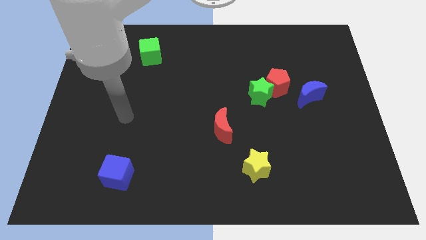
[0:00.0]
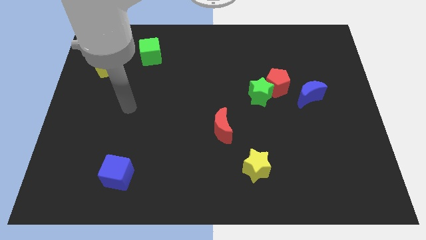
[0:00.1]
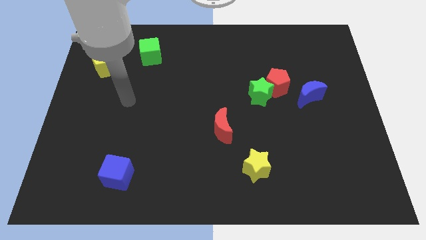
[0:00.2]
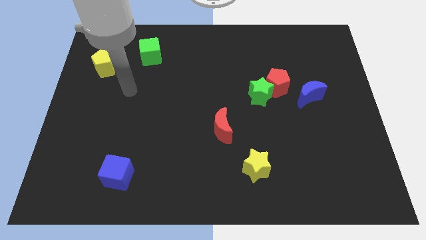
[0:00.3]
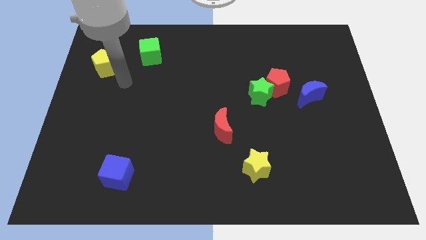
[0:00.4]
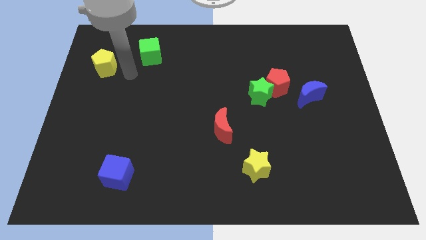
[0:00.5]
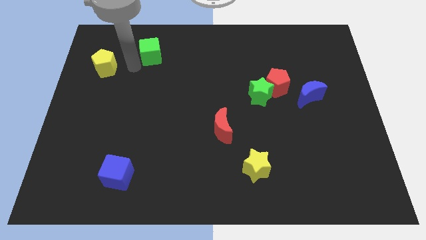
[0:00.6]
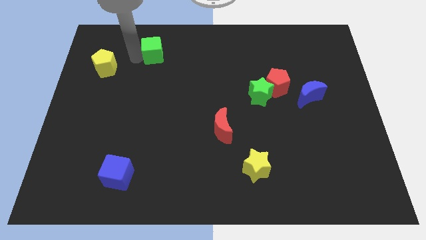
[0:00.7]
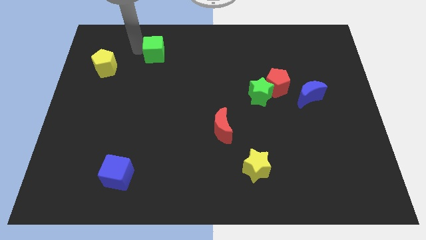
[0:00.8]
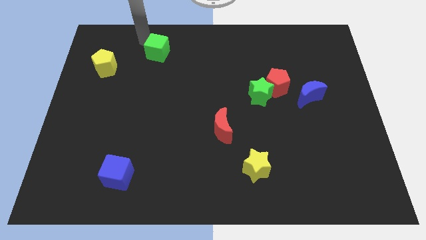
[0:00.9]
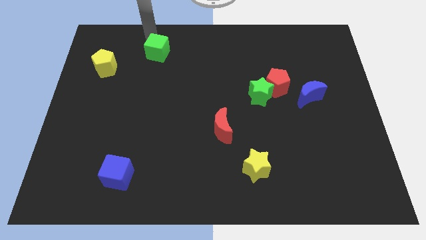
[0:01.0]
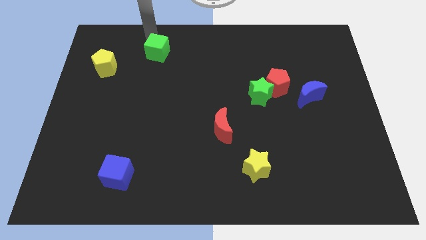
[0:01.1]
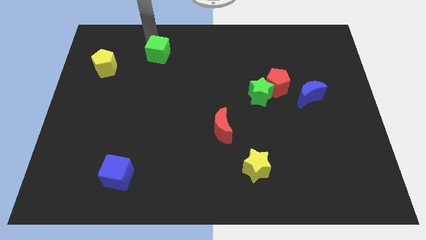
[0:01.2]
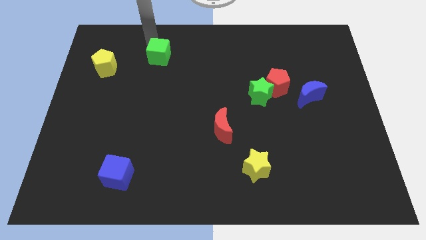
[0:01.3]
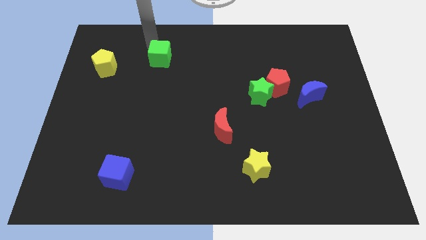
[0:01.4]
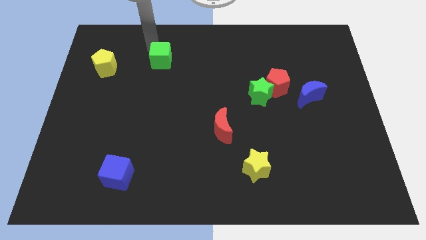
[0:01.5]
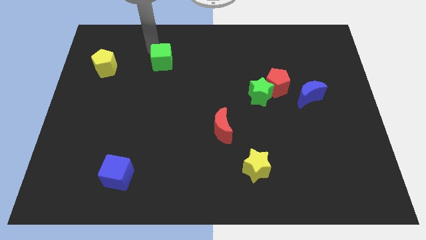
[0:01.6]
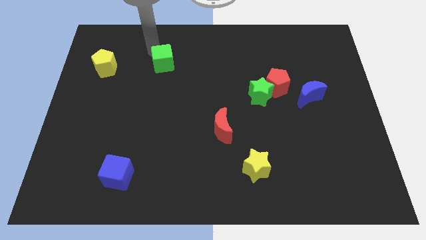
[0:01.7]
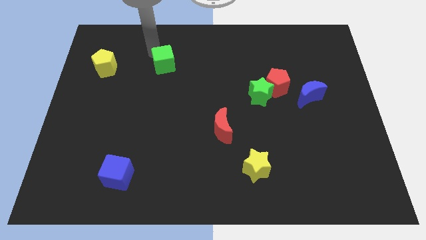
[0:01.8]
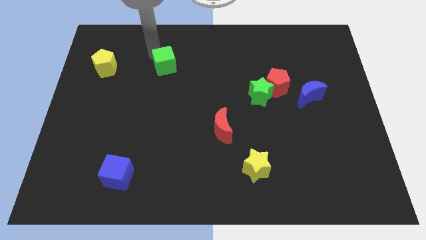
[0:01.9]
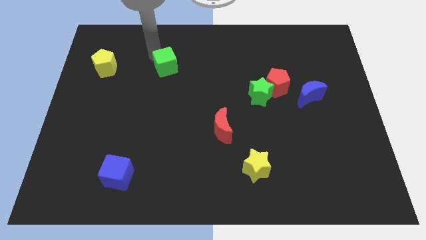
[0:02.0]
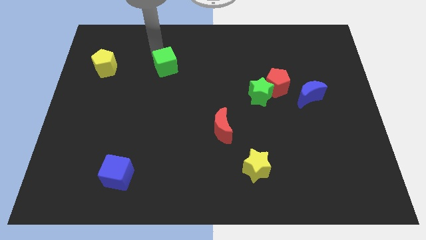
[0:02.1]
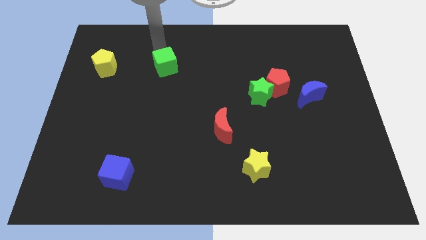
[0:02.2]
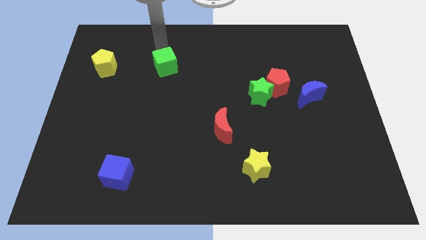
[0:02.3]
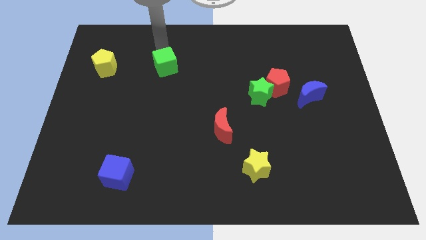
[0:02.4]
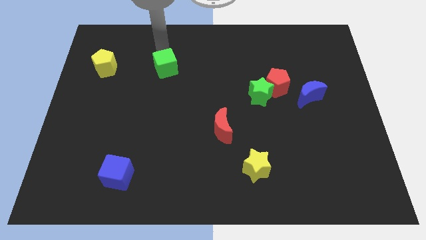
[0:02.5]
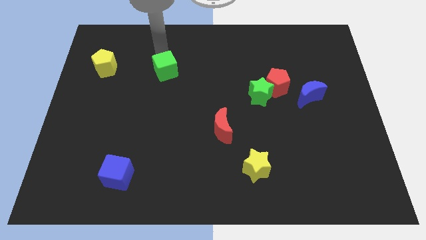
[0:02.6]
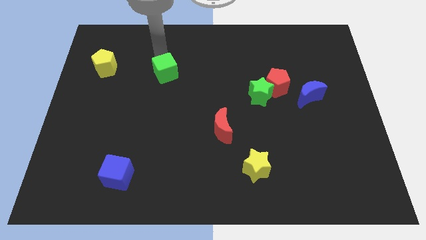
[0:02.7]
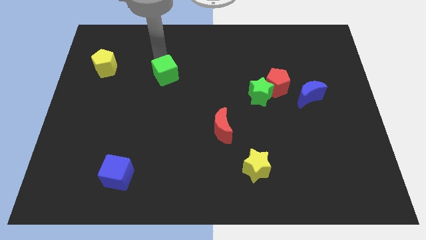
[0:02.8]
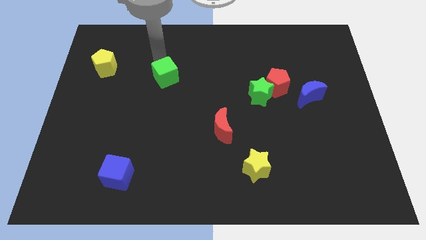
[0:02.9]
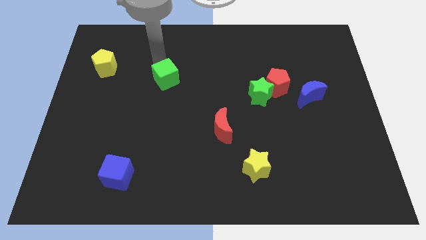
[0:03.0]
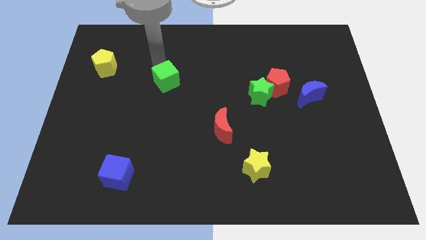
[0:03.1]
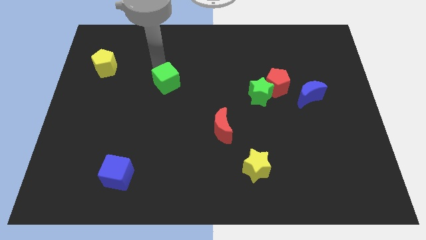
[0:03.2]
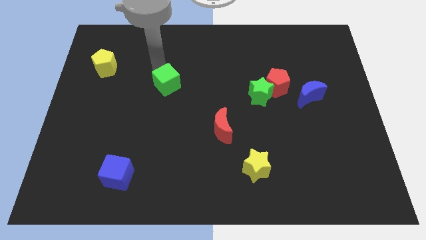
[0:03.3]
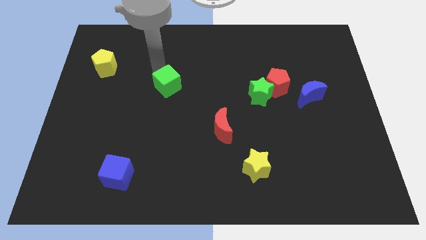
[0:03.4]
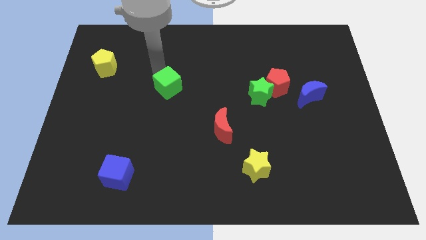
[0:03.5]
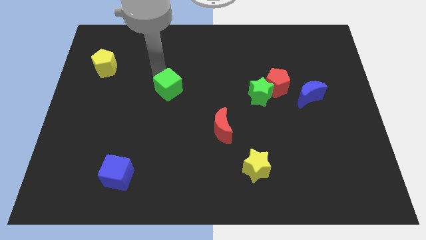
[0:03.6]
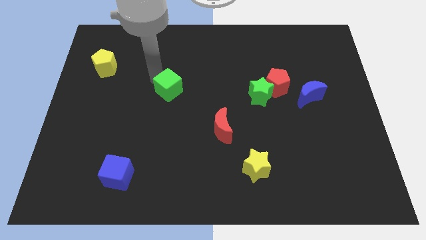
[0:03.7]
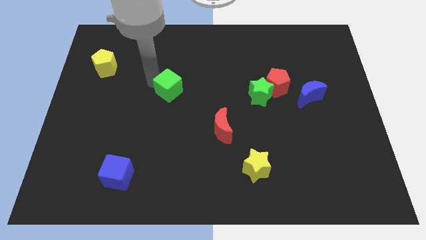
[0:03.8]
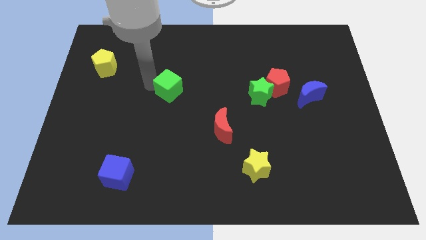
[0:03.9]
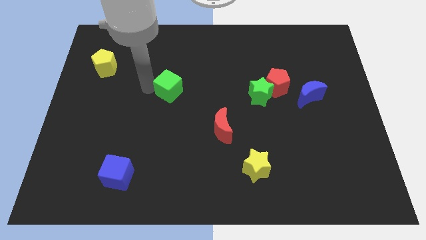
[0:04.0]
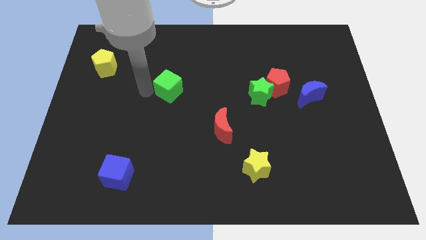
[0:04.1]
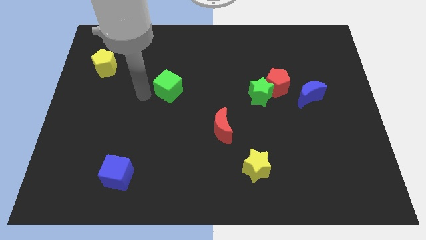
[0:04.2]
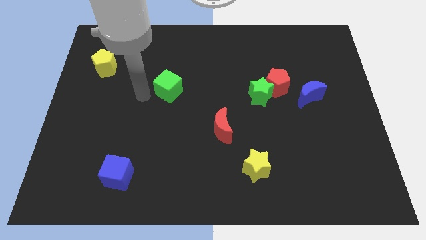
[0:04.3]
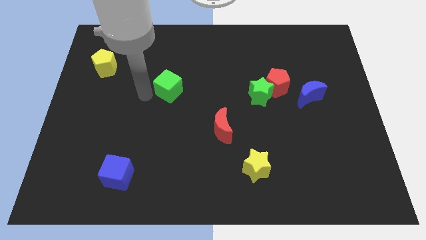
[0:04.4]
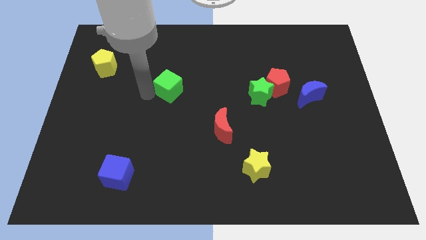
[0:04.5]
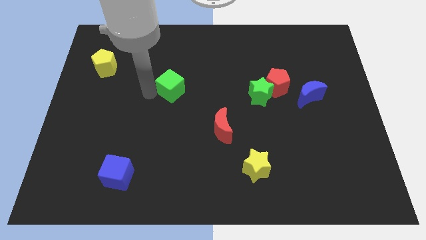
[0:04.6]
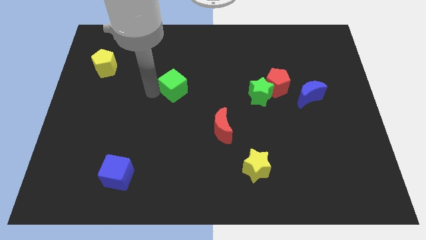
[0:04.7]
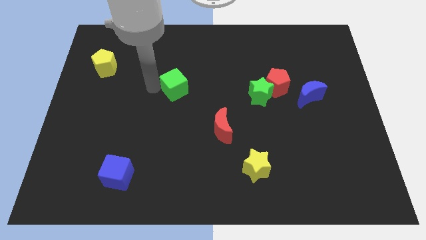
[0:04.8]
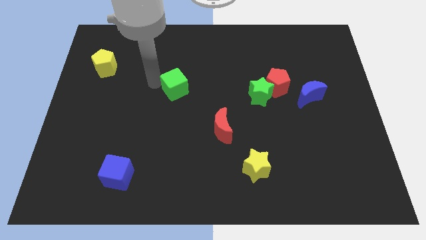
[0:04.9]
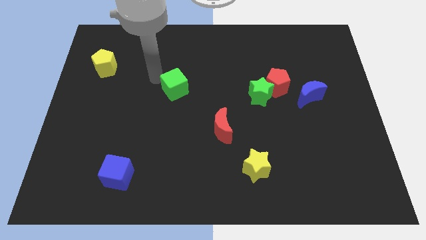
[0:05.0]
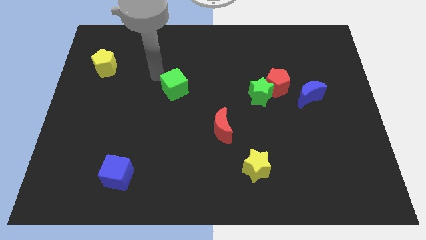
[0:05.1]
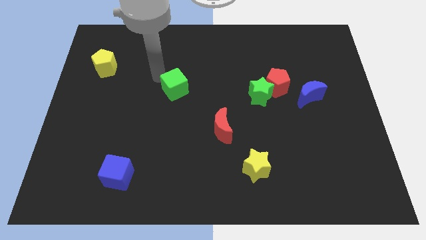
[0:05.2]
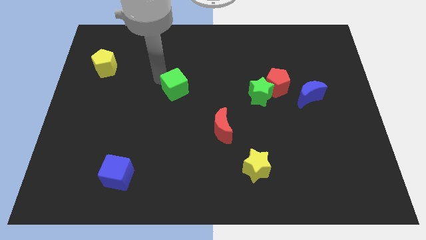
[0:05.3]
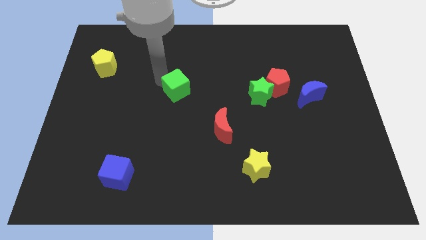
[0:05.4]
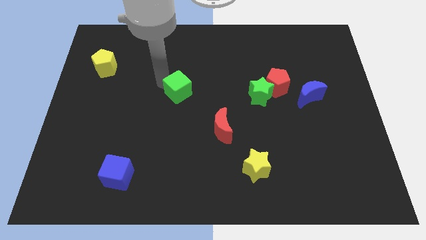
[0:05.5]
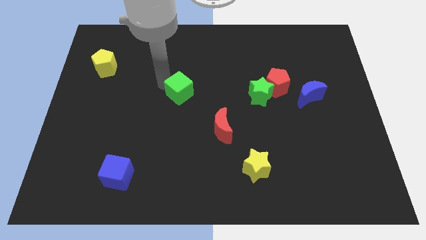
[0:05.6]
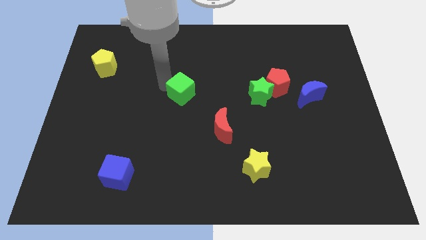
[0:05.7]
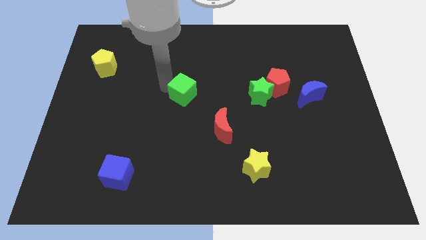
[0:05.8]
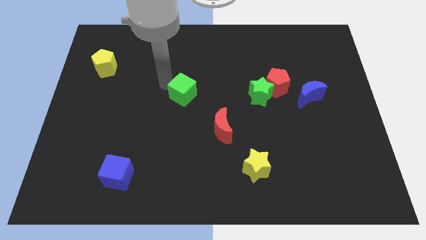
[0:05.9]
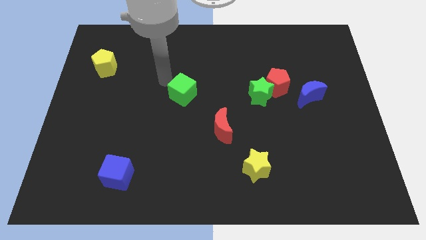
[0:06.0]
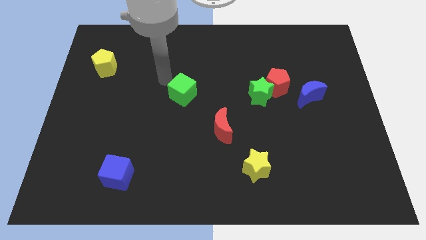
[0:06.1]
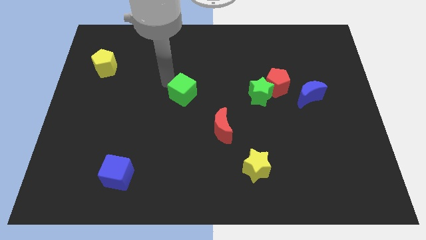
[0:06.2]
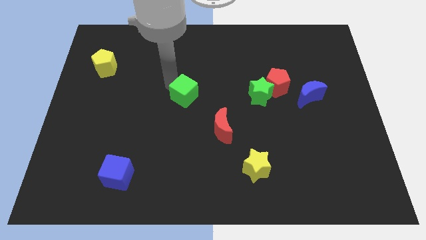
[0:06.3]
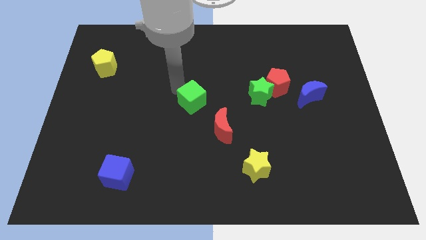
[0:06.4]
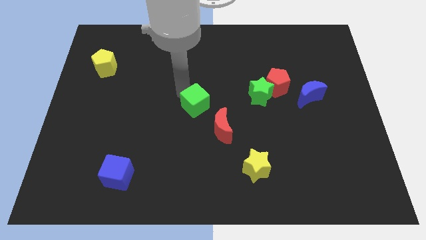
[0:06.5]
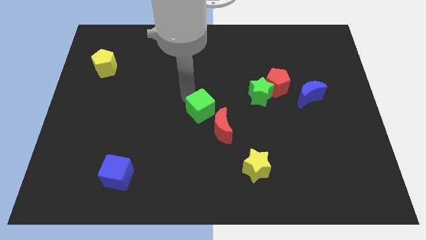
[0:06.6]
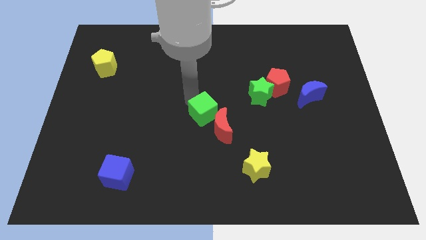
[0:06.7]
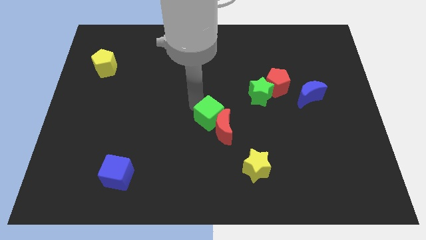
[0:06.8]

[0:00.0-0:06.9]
move the green cube to the red moon

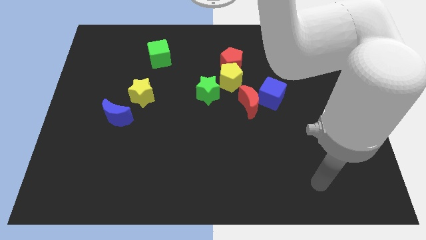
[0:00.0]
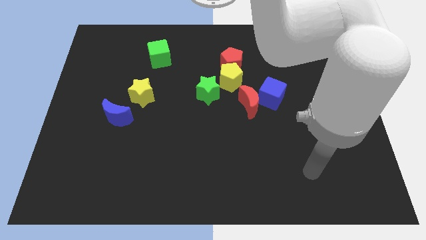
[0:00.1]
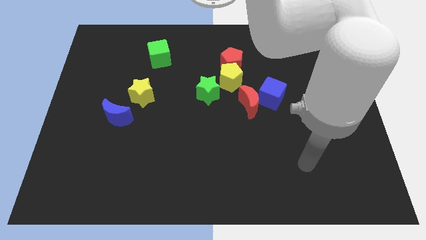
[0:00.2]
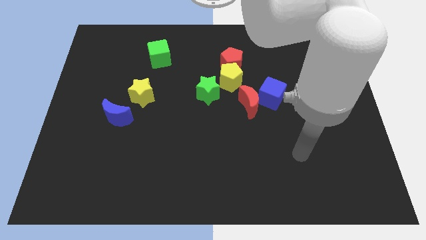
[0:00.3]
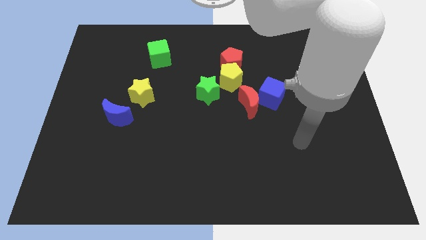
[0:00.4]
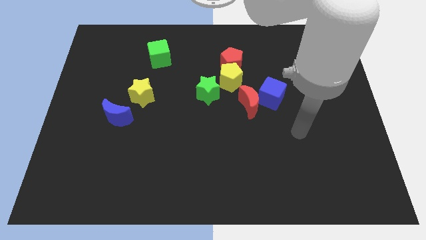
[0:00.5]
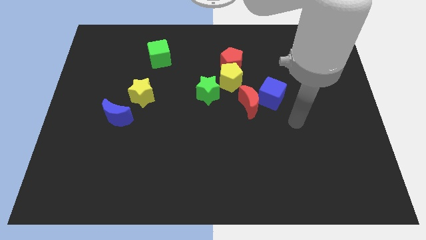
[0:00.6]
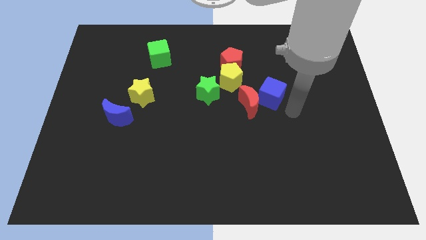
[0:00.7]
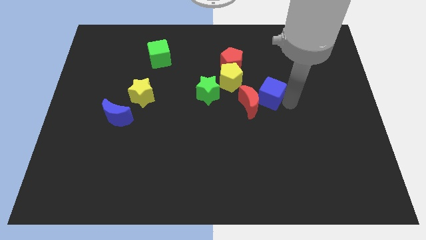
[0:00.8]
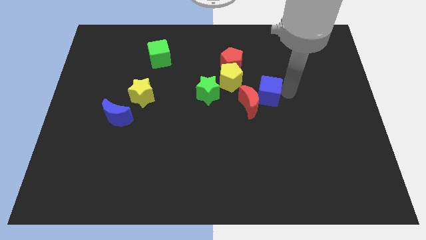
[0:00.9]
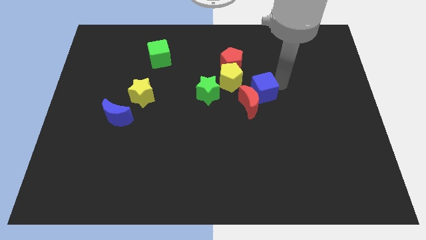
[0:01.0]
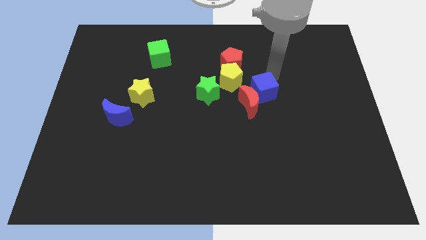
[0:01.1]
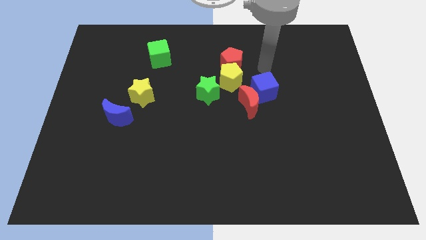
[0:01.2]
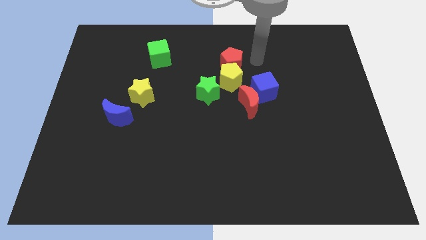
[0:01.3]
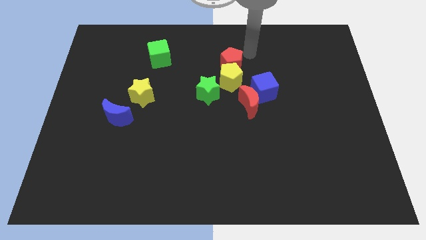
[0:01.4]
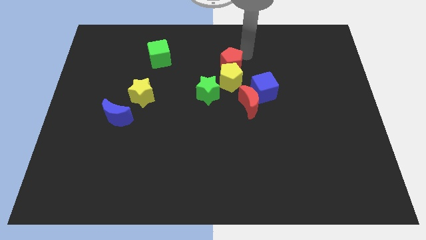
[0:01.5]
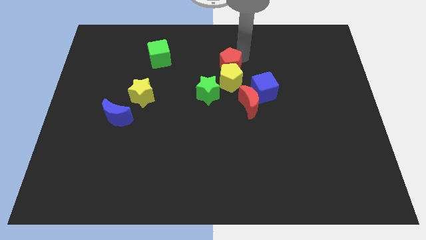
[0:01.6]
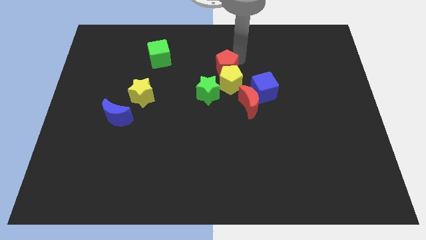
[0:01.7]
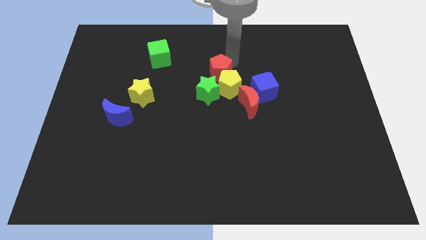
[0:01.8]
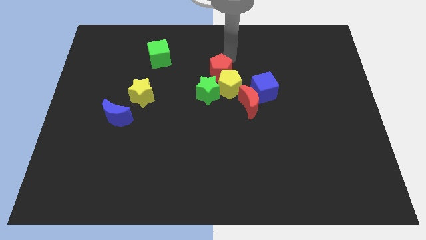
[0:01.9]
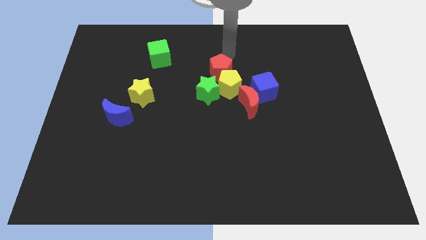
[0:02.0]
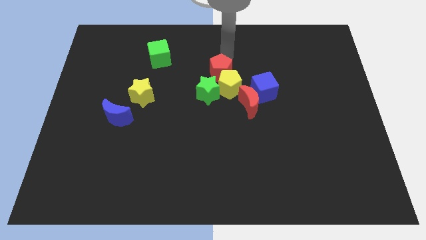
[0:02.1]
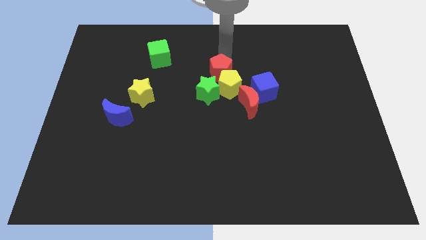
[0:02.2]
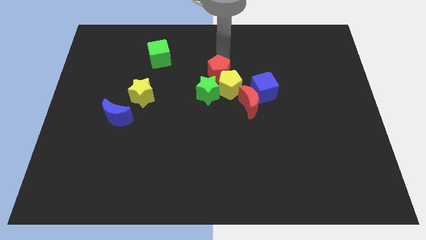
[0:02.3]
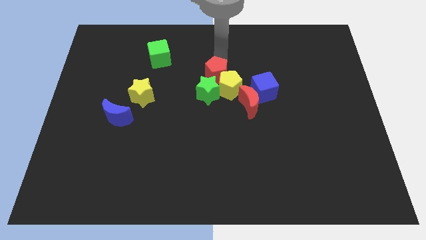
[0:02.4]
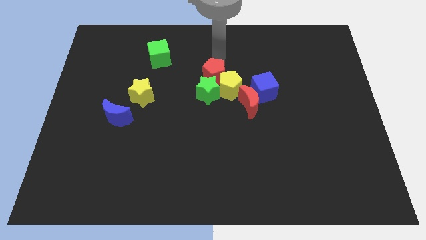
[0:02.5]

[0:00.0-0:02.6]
push the red pentagon next to the green star
